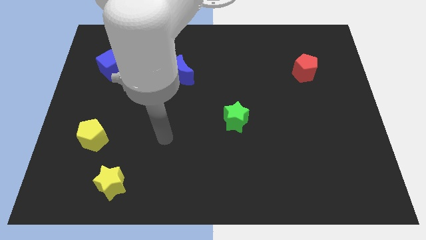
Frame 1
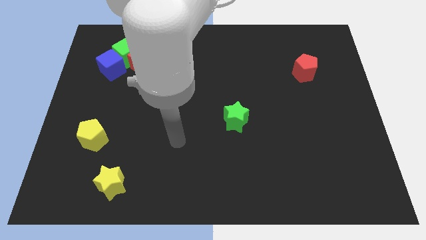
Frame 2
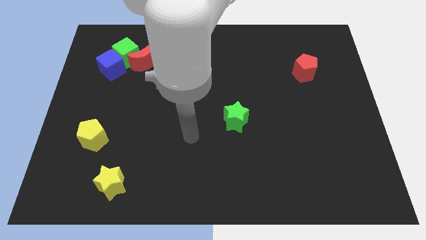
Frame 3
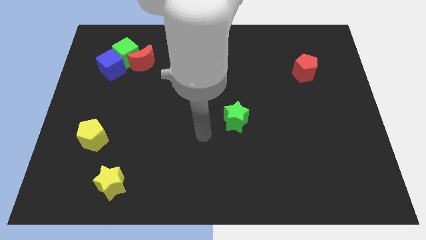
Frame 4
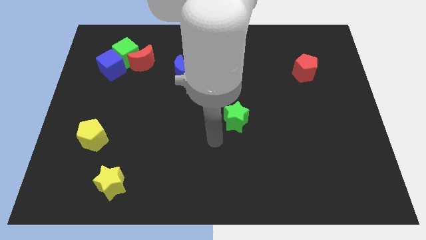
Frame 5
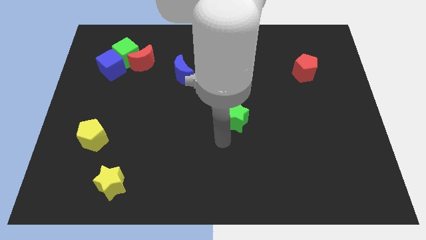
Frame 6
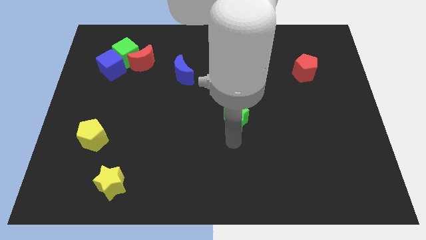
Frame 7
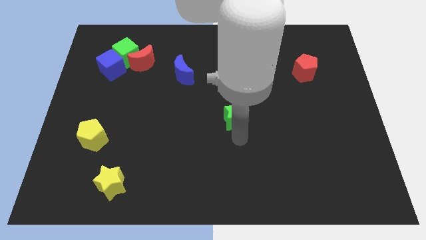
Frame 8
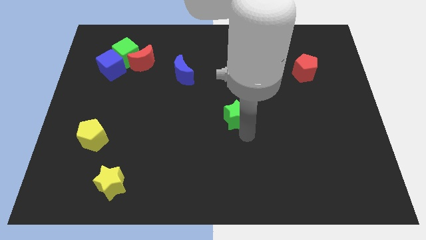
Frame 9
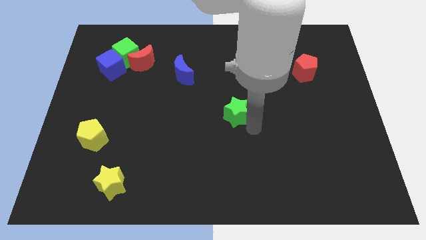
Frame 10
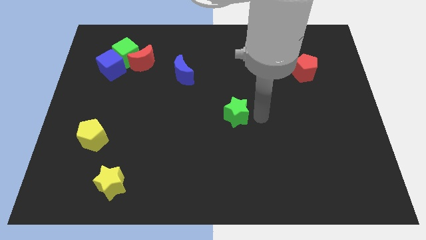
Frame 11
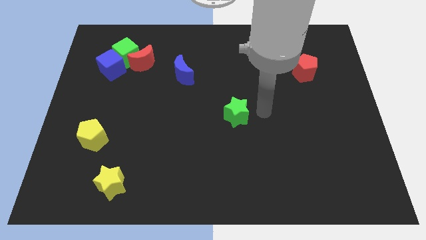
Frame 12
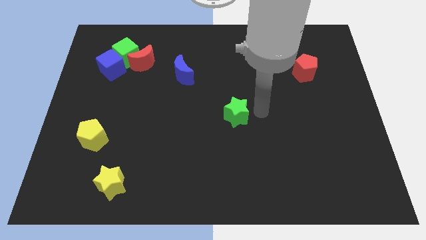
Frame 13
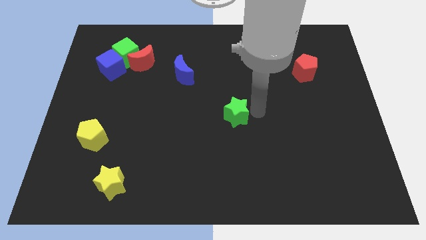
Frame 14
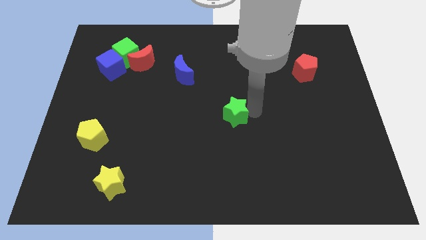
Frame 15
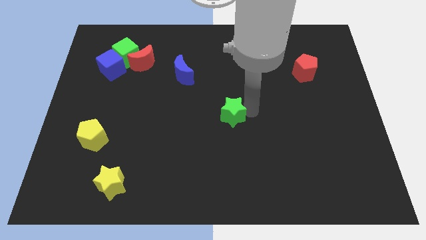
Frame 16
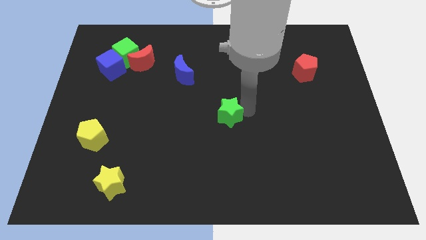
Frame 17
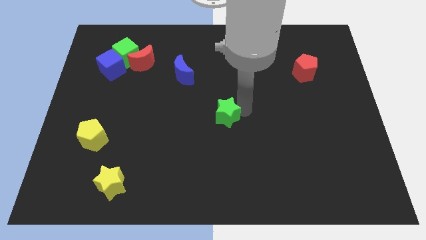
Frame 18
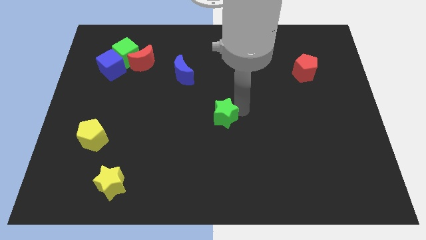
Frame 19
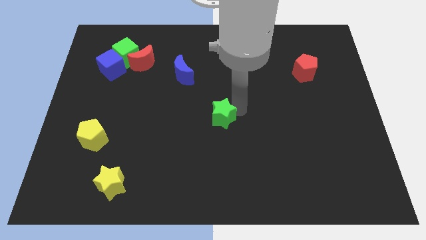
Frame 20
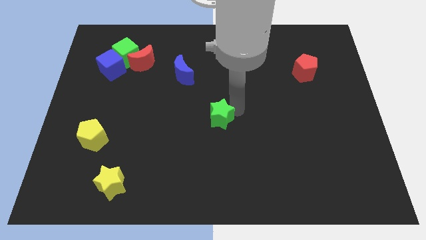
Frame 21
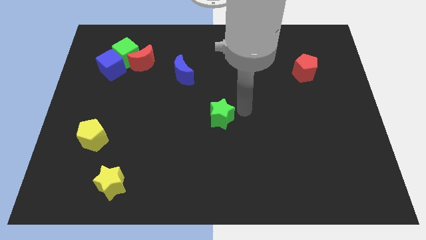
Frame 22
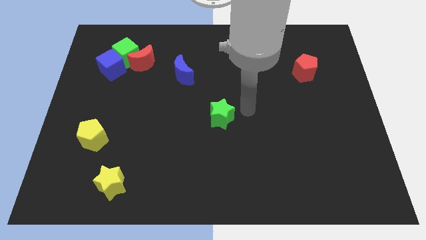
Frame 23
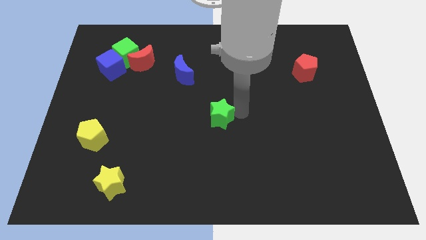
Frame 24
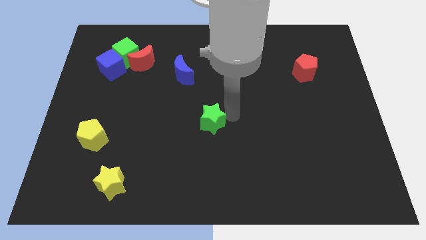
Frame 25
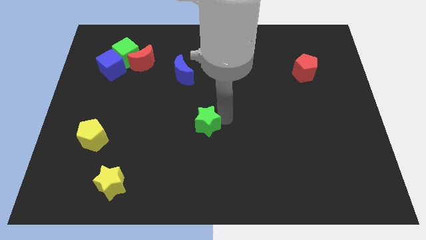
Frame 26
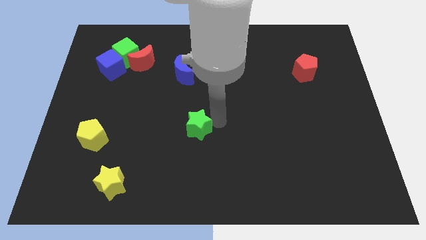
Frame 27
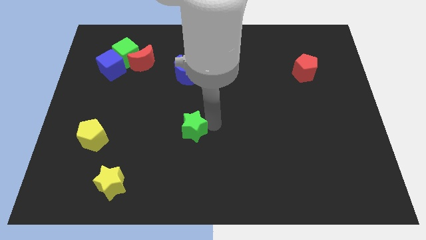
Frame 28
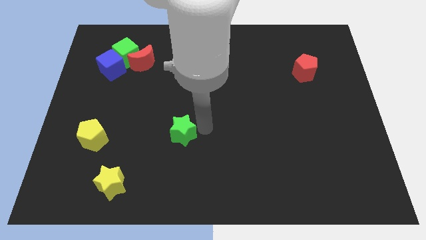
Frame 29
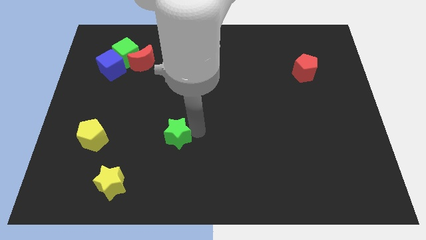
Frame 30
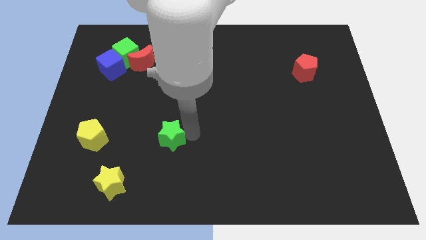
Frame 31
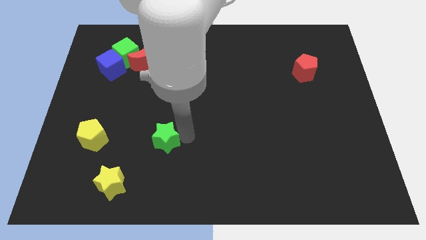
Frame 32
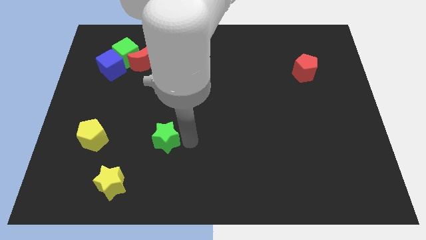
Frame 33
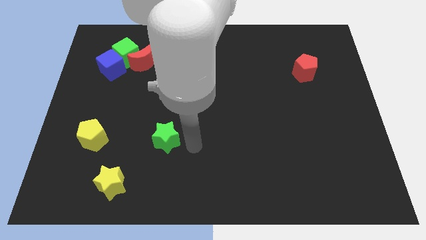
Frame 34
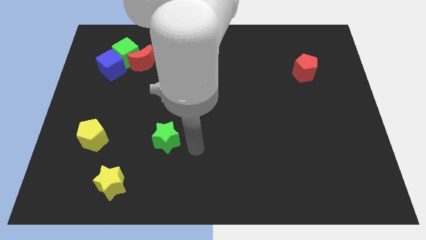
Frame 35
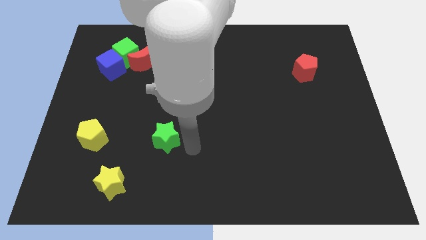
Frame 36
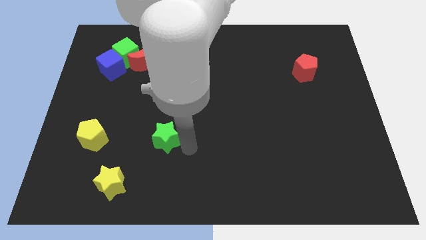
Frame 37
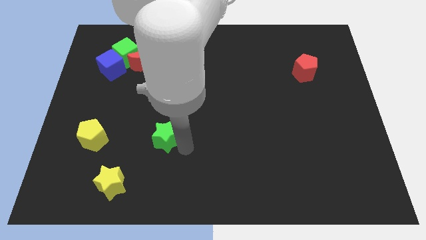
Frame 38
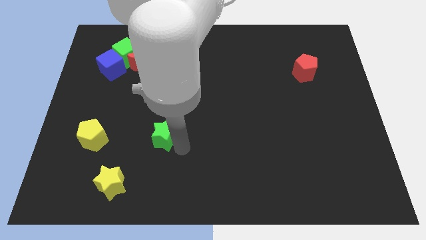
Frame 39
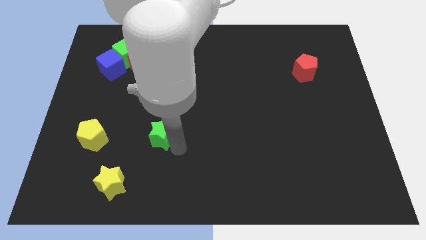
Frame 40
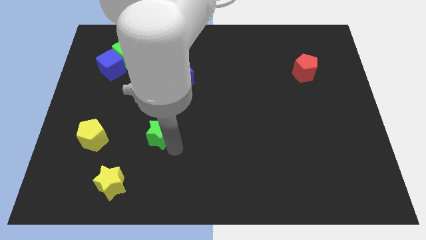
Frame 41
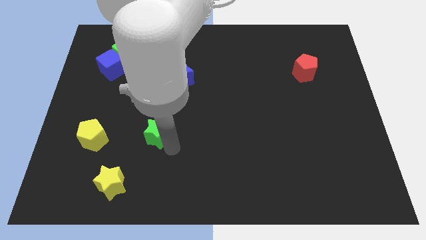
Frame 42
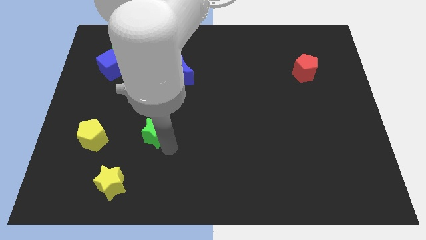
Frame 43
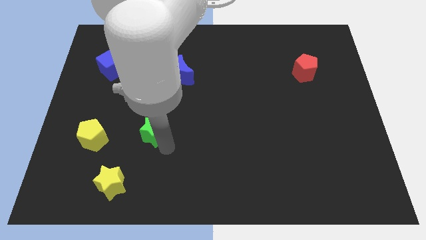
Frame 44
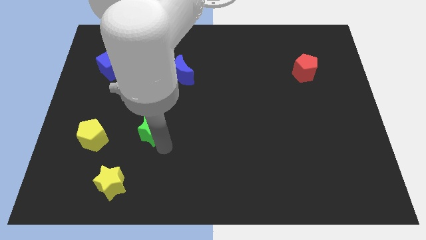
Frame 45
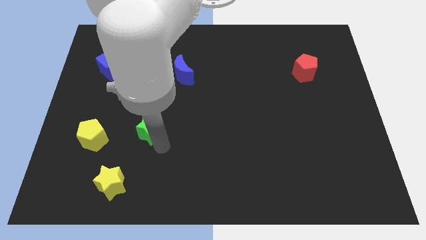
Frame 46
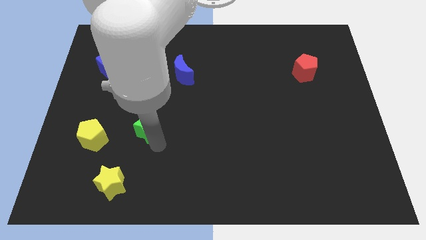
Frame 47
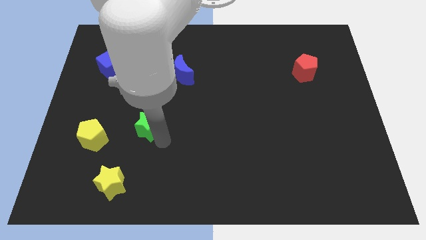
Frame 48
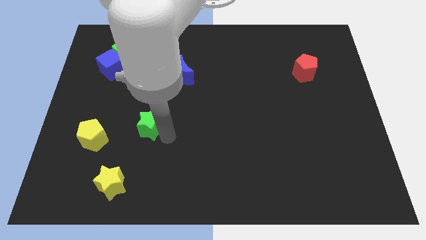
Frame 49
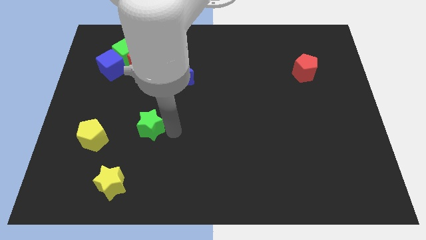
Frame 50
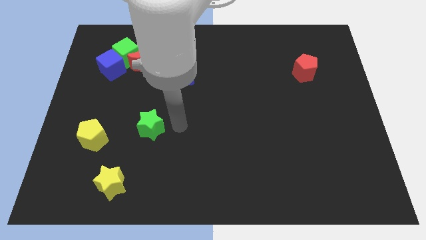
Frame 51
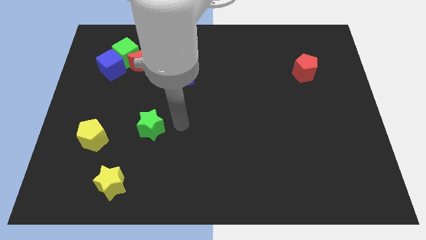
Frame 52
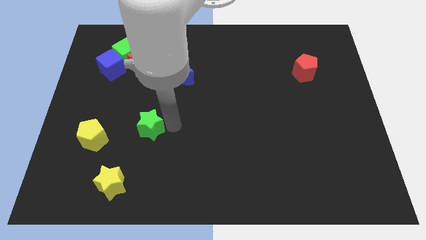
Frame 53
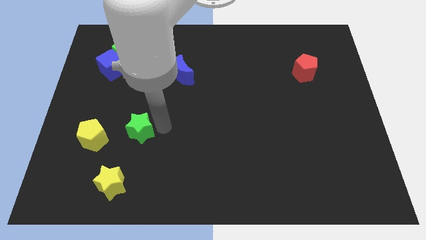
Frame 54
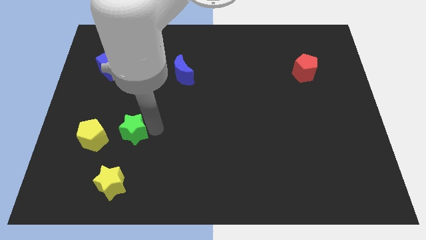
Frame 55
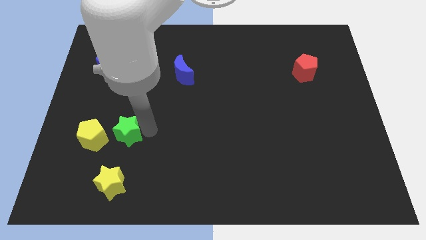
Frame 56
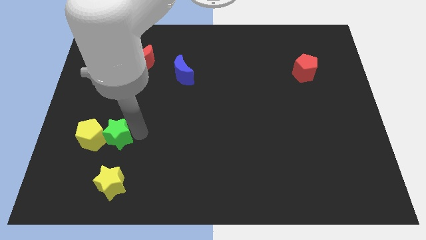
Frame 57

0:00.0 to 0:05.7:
push the green star close to the yellow pentagon

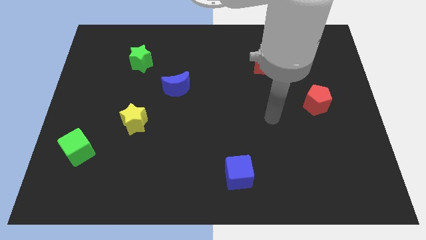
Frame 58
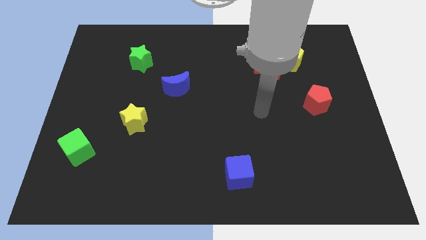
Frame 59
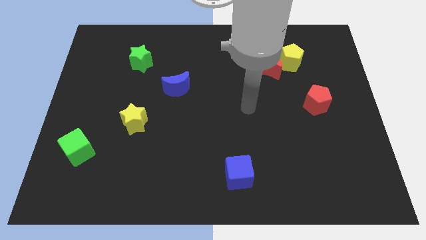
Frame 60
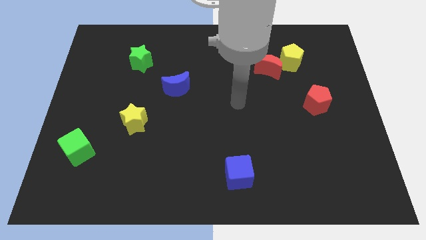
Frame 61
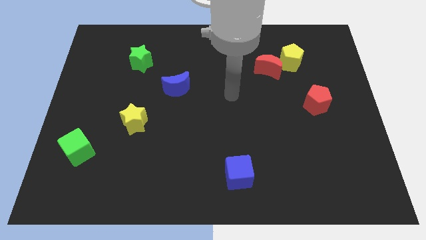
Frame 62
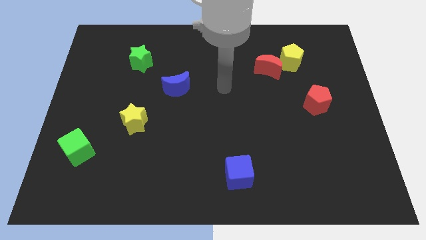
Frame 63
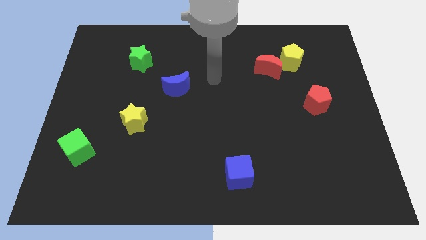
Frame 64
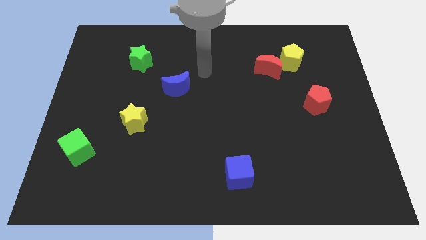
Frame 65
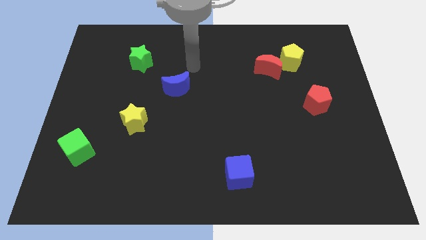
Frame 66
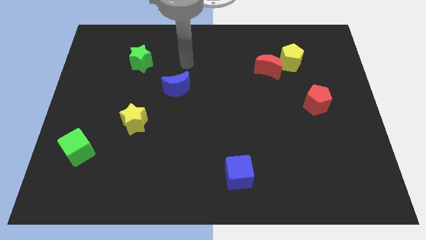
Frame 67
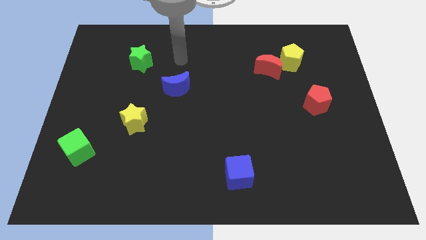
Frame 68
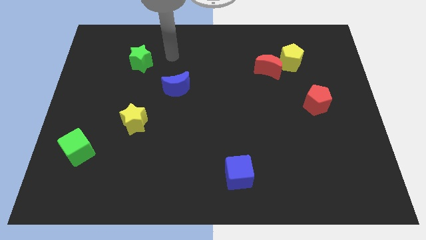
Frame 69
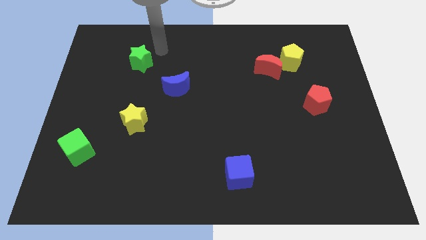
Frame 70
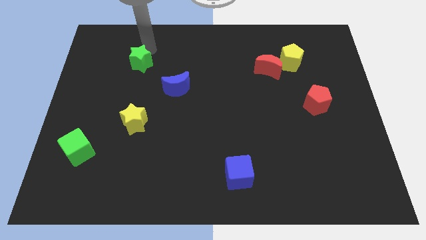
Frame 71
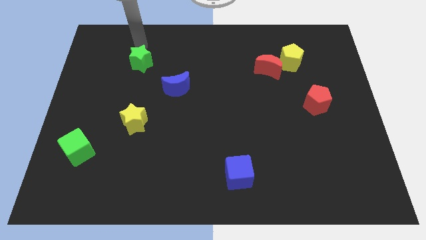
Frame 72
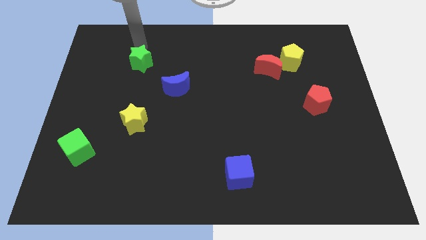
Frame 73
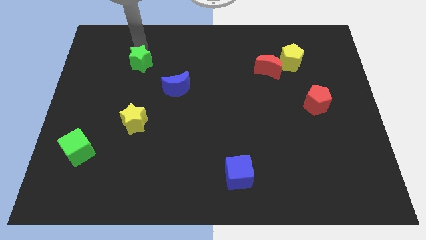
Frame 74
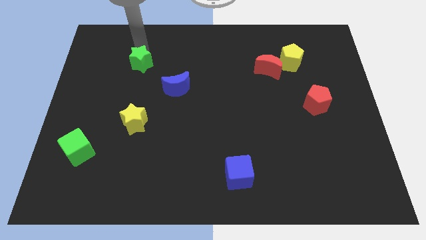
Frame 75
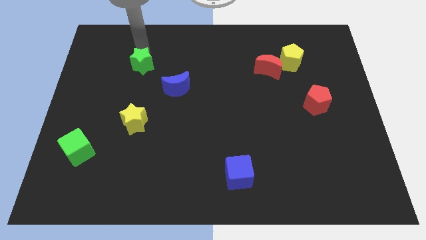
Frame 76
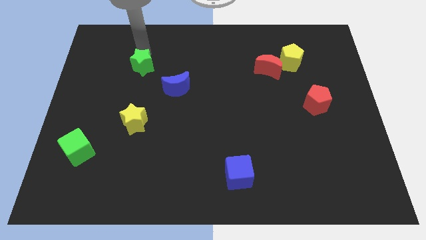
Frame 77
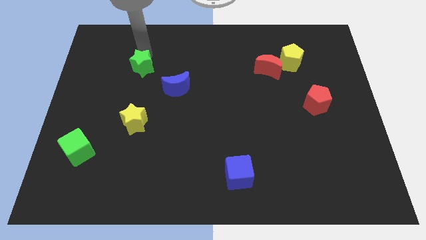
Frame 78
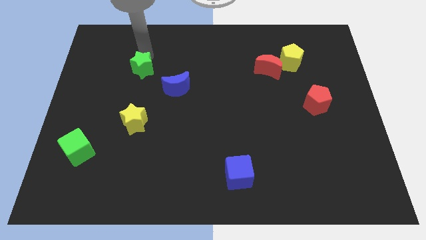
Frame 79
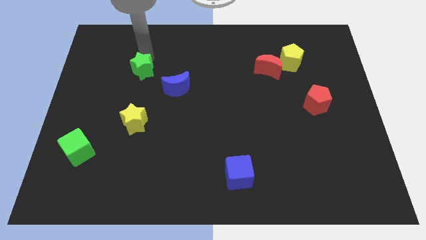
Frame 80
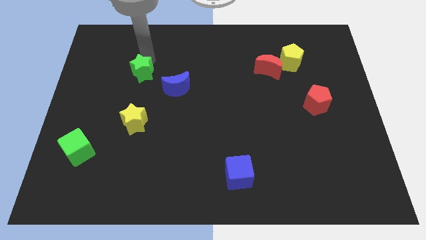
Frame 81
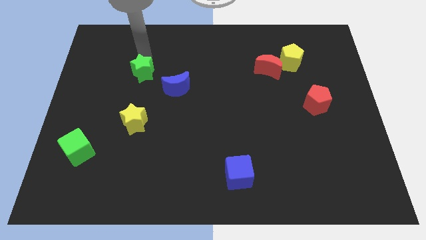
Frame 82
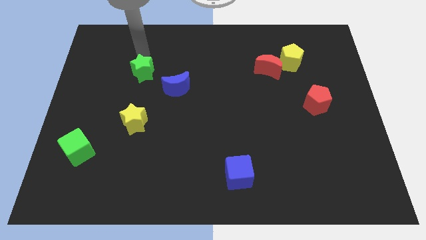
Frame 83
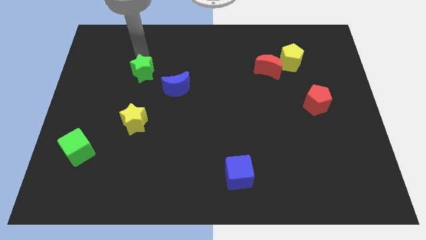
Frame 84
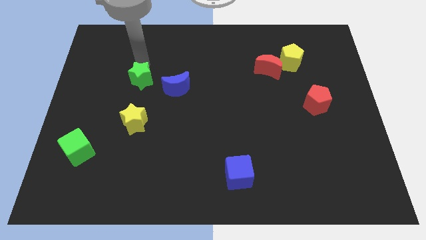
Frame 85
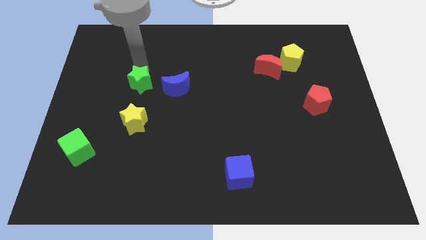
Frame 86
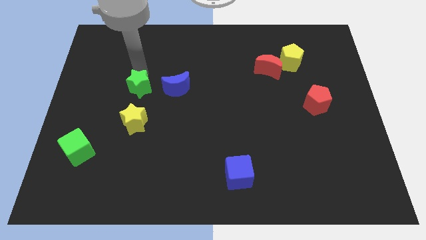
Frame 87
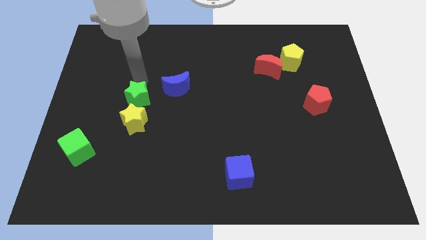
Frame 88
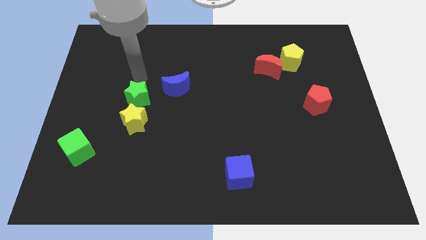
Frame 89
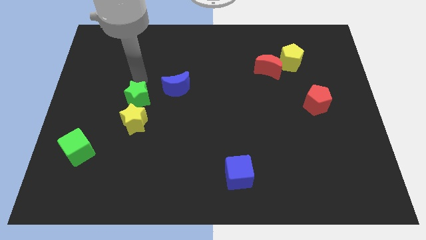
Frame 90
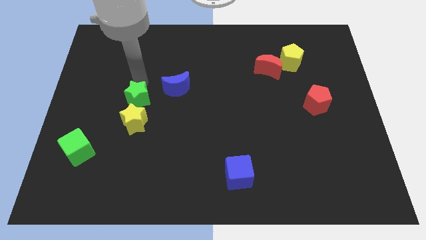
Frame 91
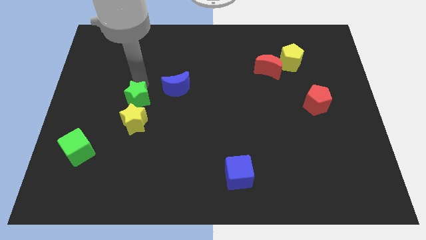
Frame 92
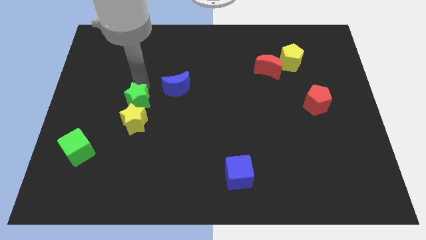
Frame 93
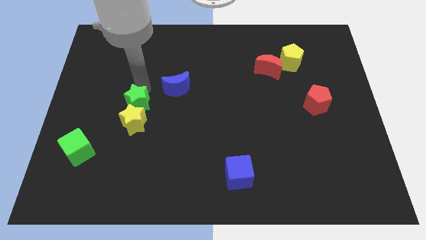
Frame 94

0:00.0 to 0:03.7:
slide the green star to the yellow star
